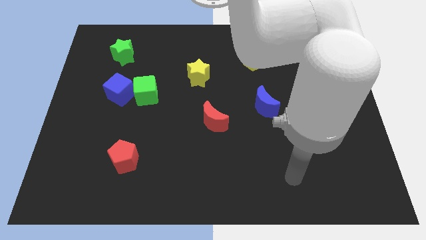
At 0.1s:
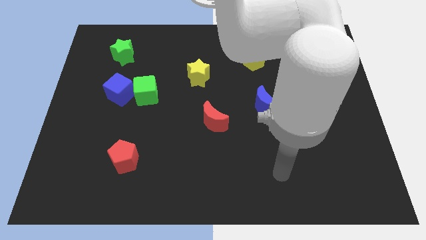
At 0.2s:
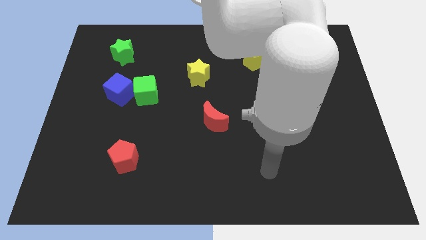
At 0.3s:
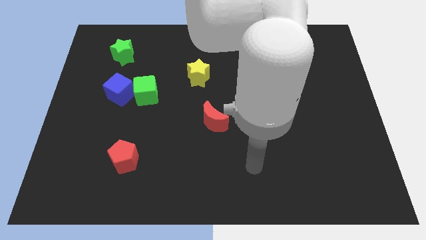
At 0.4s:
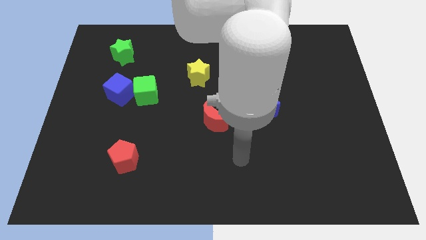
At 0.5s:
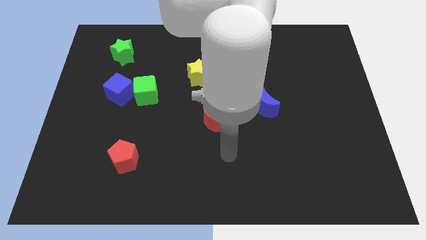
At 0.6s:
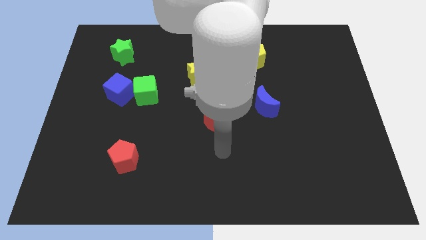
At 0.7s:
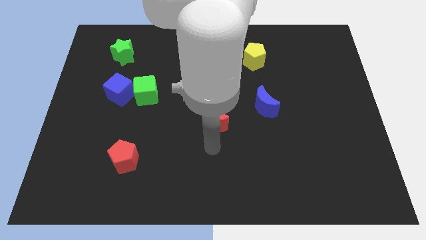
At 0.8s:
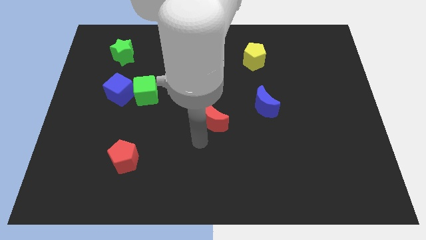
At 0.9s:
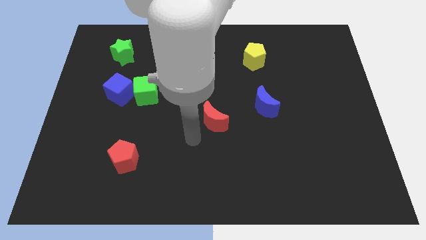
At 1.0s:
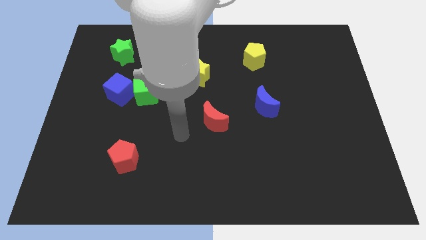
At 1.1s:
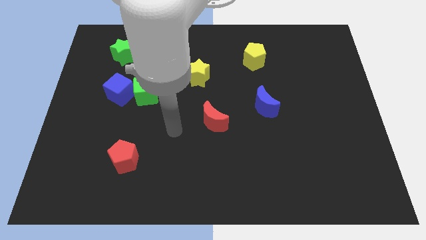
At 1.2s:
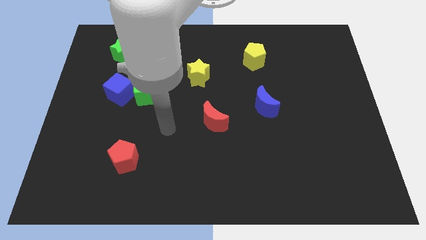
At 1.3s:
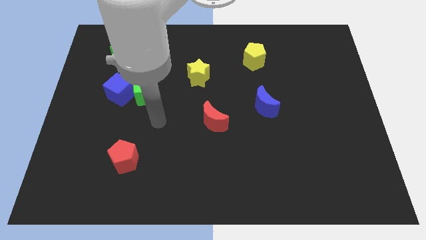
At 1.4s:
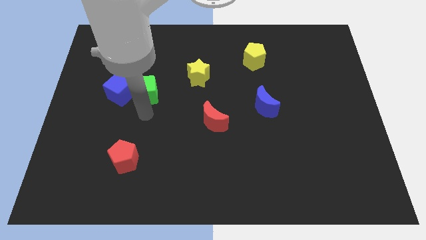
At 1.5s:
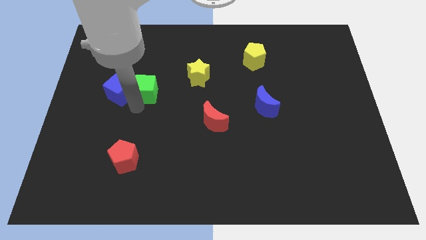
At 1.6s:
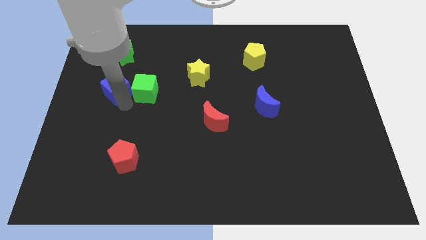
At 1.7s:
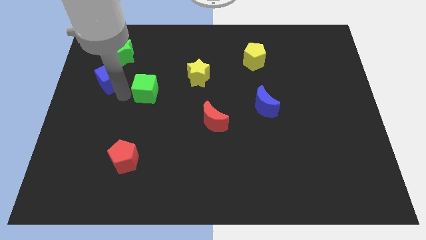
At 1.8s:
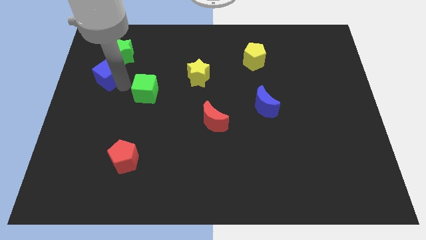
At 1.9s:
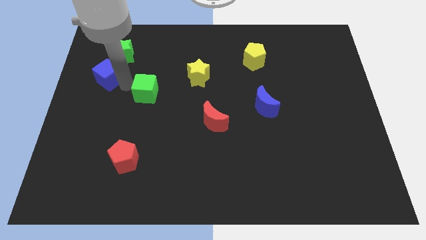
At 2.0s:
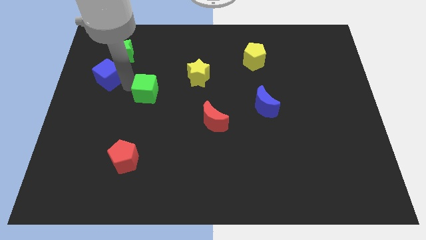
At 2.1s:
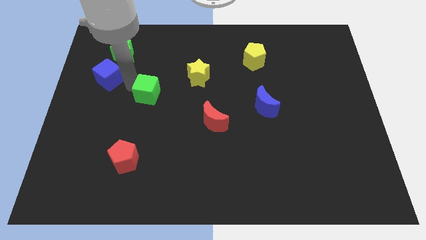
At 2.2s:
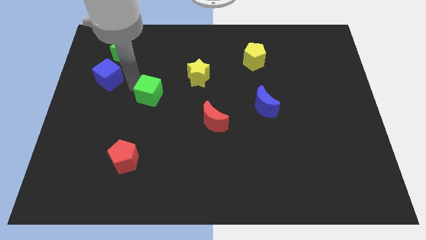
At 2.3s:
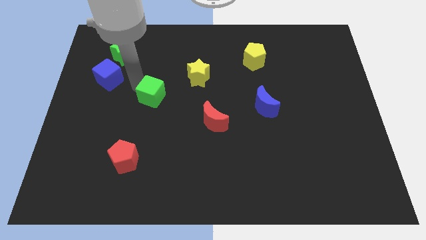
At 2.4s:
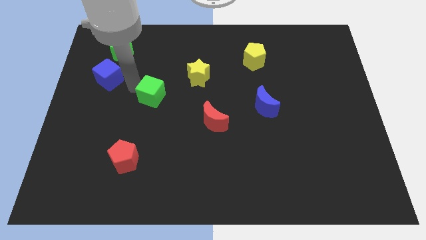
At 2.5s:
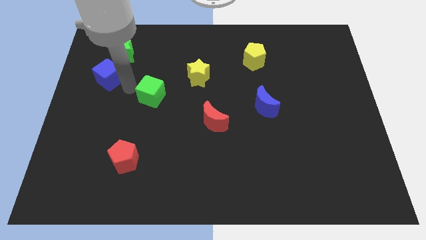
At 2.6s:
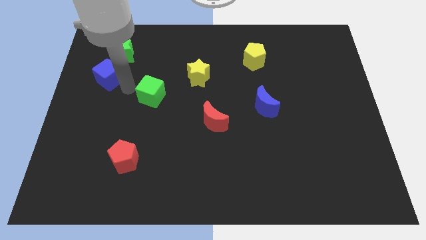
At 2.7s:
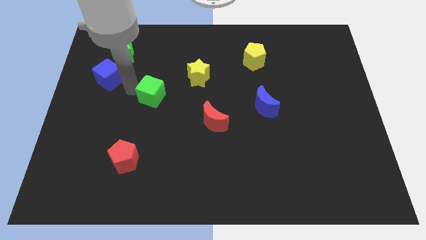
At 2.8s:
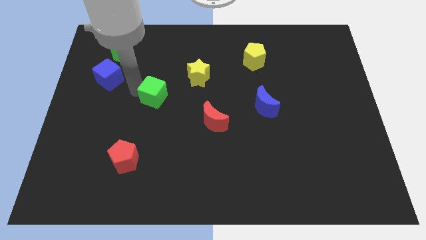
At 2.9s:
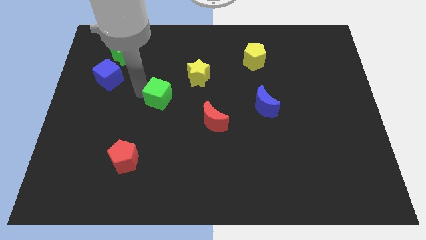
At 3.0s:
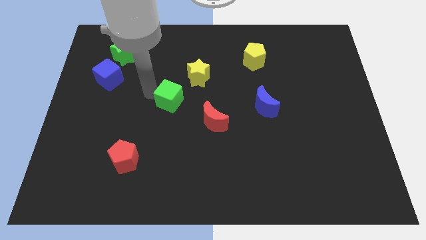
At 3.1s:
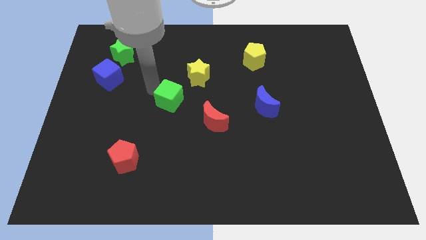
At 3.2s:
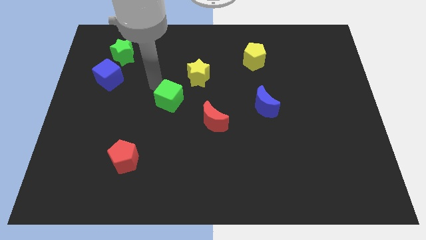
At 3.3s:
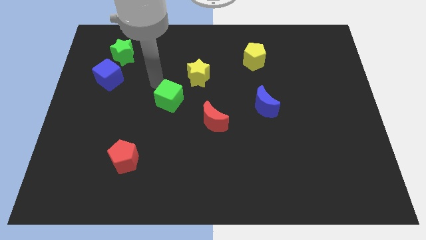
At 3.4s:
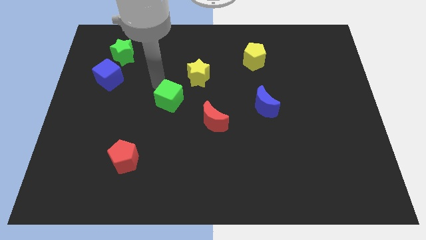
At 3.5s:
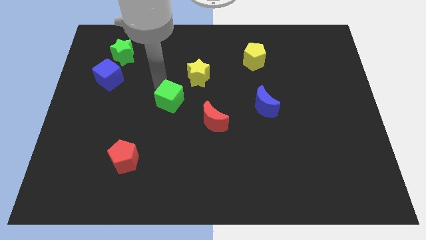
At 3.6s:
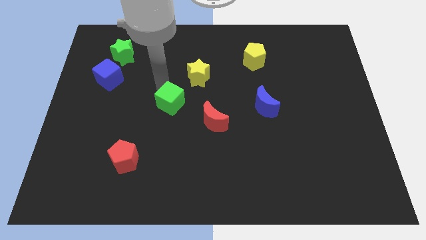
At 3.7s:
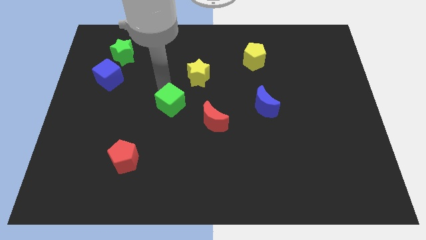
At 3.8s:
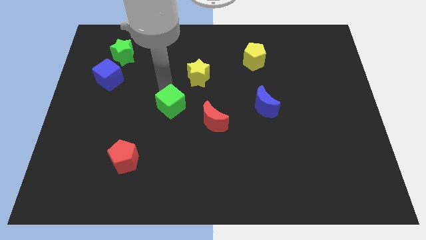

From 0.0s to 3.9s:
slightly move the green cube down and right diagonally

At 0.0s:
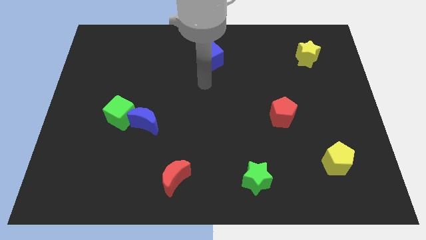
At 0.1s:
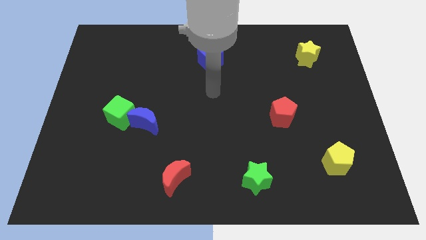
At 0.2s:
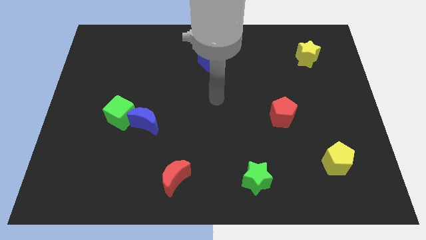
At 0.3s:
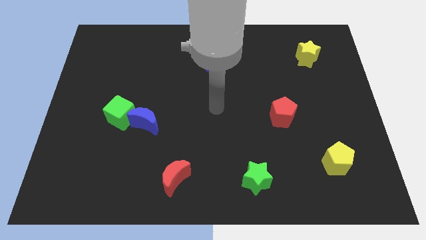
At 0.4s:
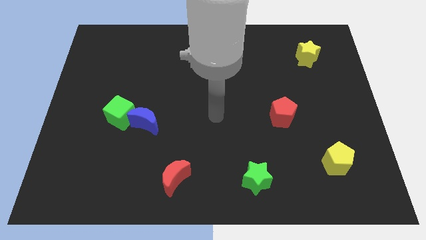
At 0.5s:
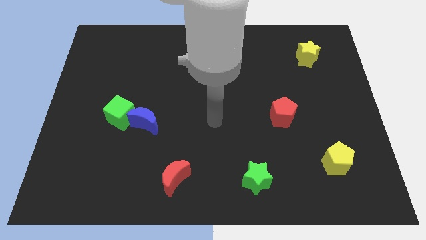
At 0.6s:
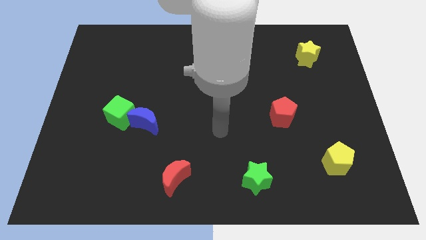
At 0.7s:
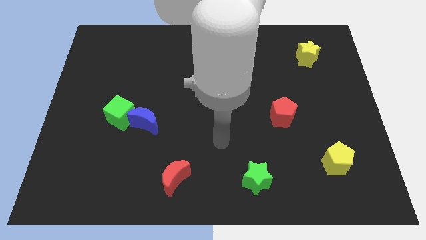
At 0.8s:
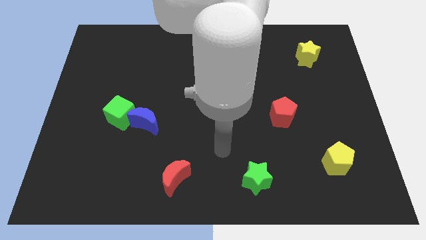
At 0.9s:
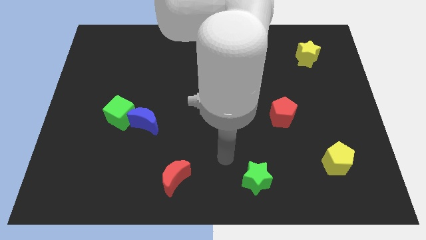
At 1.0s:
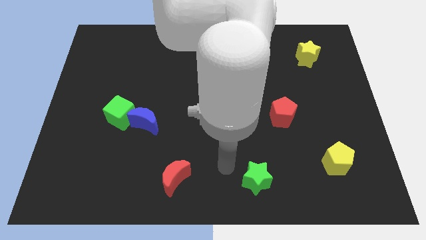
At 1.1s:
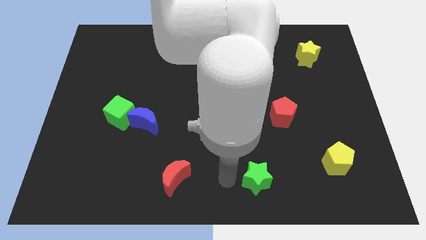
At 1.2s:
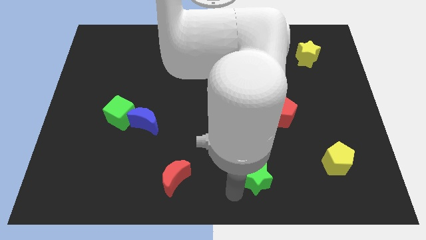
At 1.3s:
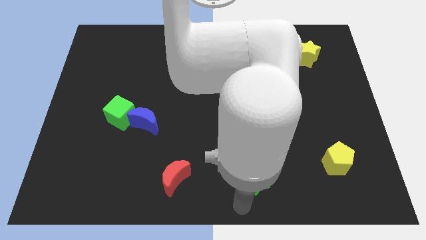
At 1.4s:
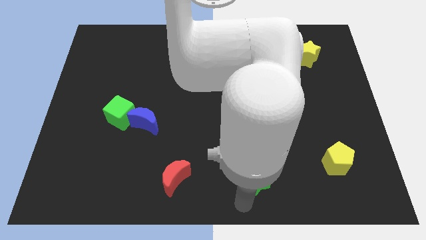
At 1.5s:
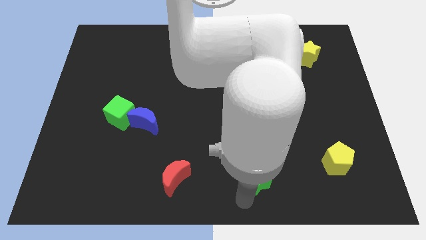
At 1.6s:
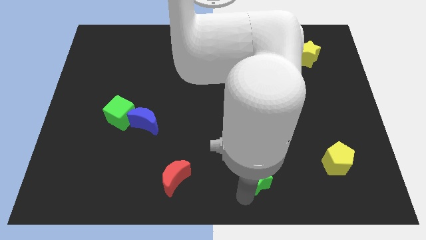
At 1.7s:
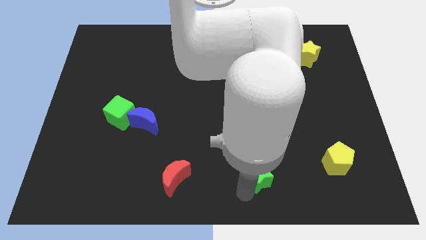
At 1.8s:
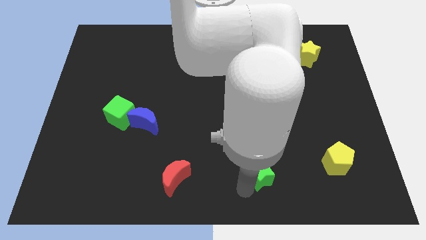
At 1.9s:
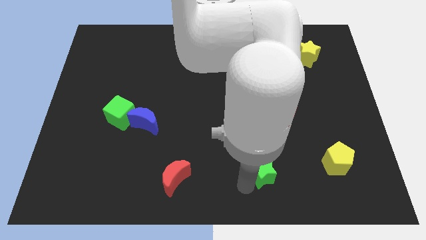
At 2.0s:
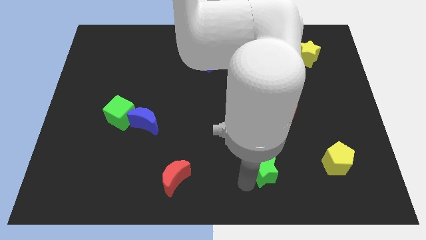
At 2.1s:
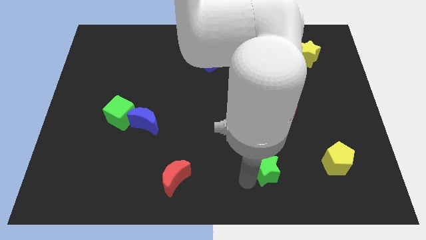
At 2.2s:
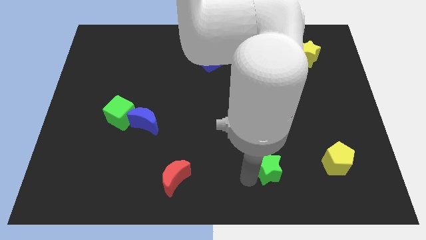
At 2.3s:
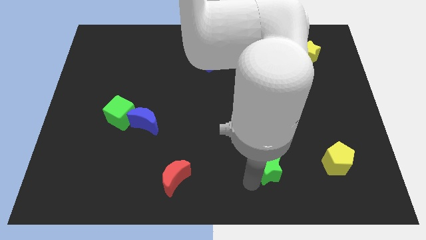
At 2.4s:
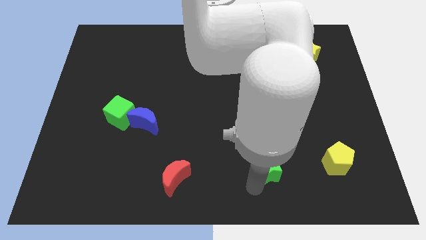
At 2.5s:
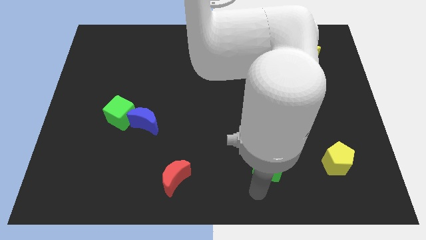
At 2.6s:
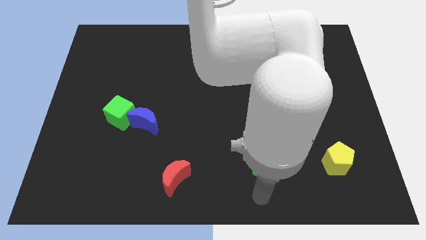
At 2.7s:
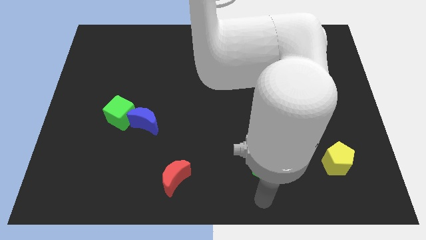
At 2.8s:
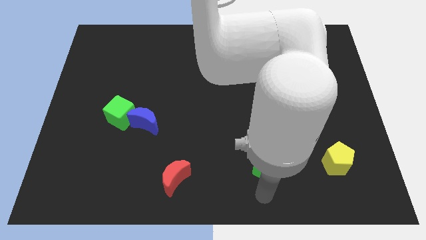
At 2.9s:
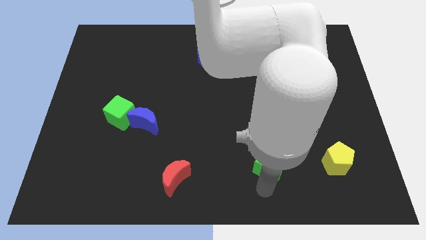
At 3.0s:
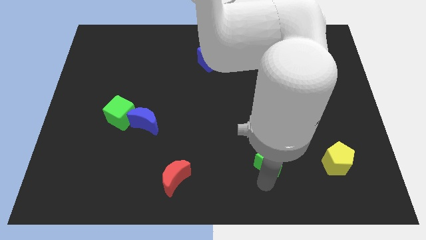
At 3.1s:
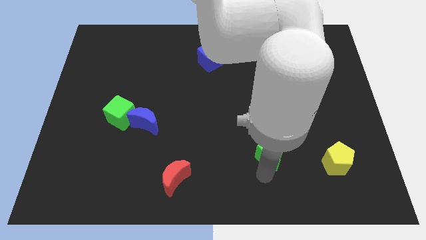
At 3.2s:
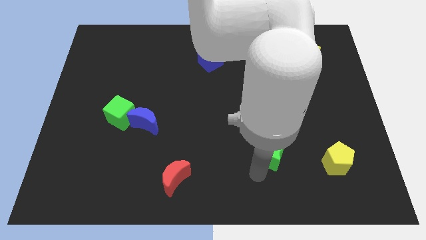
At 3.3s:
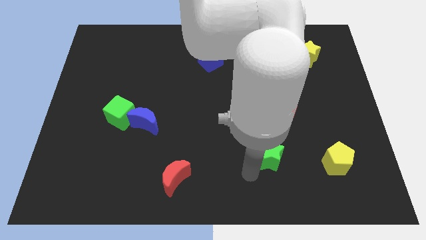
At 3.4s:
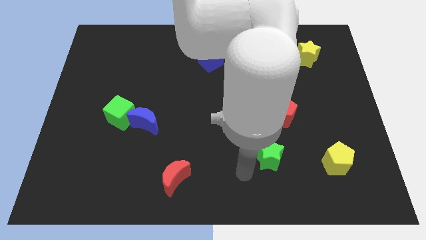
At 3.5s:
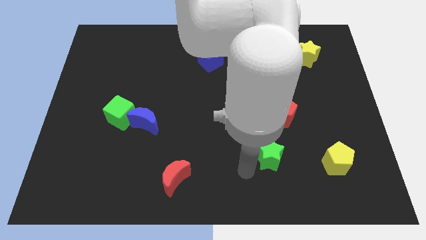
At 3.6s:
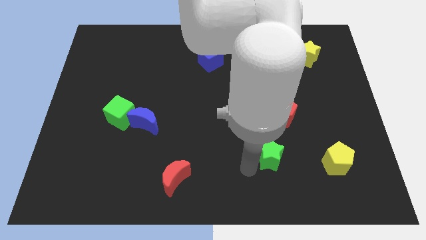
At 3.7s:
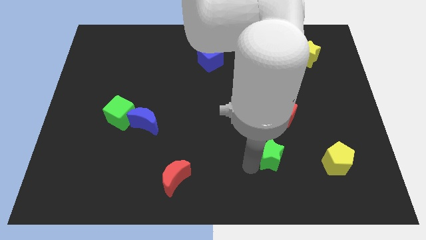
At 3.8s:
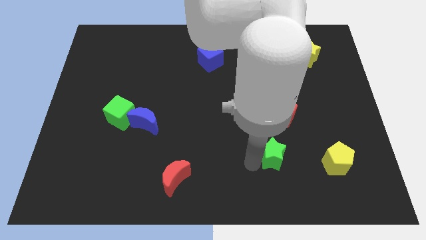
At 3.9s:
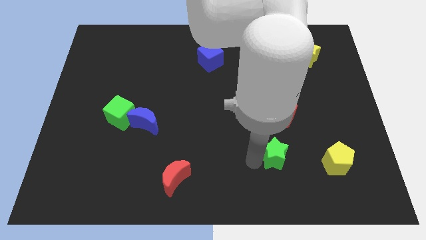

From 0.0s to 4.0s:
move the green star slightly up and to the right diagonally

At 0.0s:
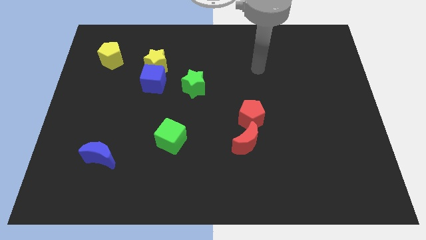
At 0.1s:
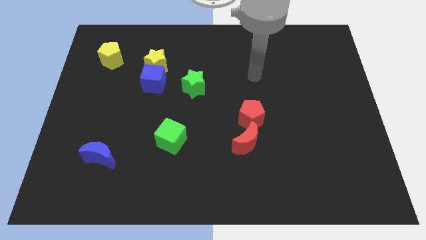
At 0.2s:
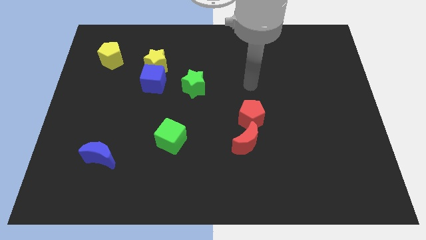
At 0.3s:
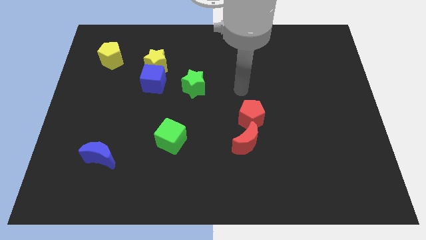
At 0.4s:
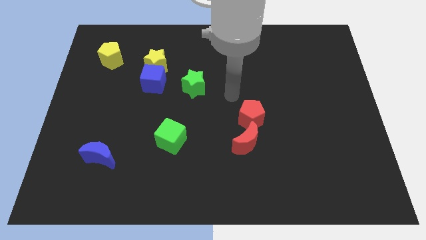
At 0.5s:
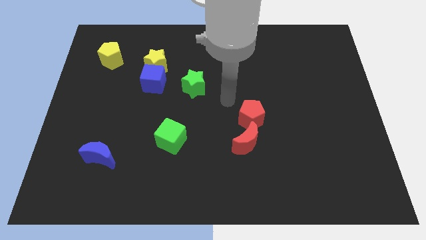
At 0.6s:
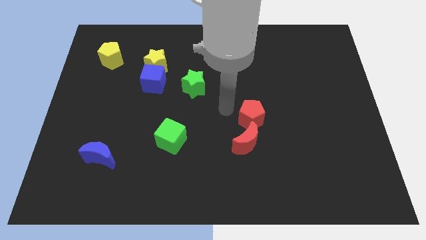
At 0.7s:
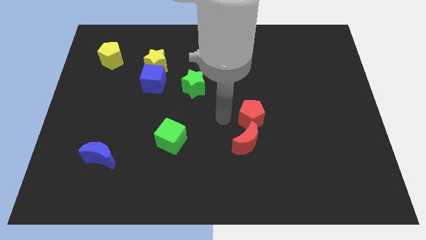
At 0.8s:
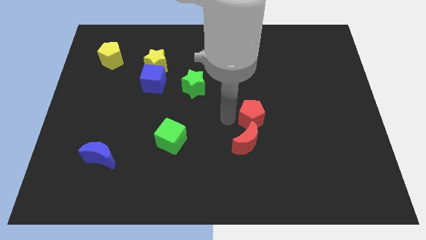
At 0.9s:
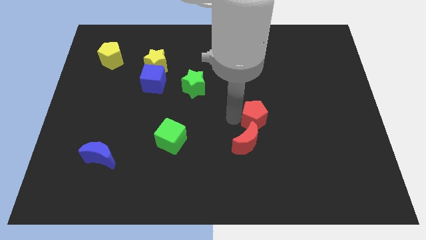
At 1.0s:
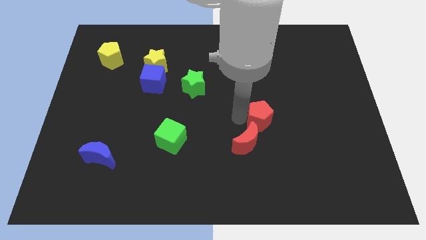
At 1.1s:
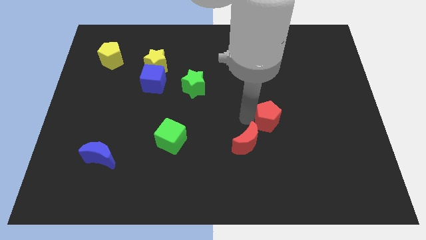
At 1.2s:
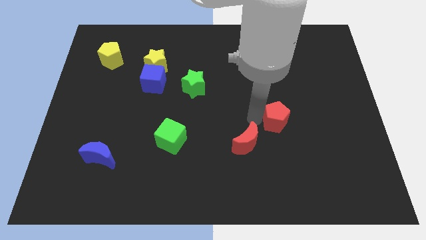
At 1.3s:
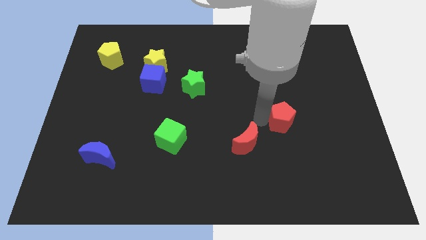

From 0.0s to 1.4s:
push the red pentagon somewhat right
